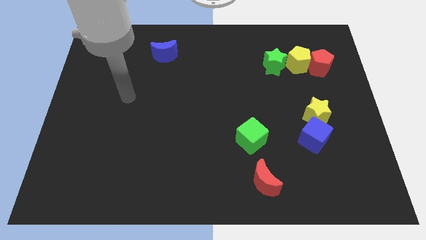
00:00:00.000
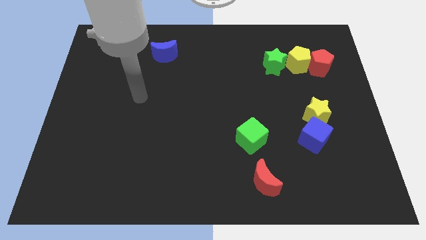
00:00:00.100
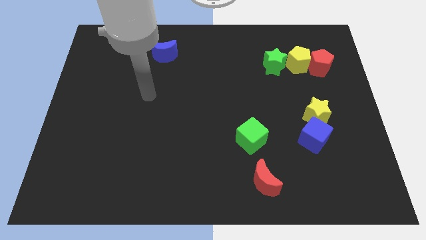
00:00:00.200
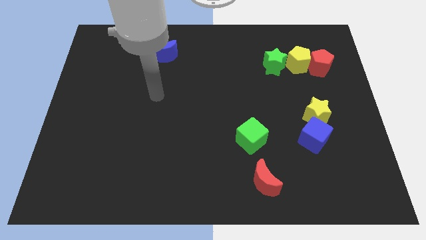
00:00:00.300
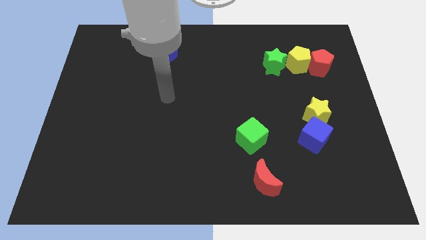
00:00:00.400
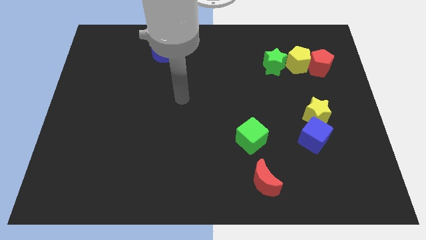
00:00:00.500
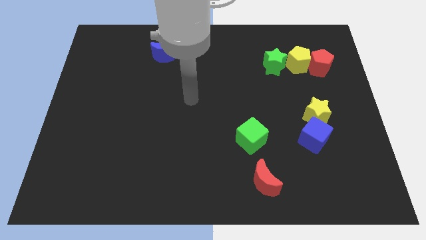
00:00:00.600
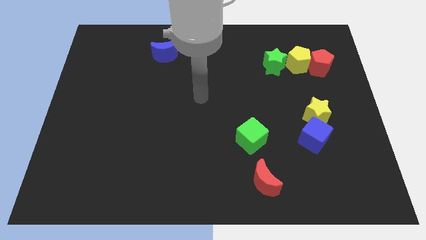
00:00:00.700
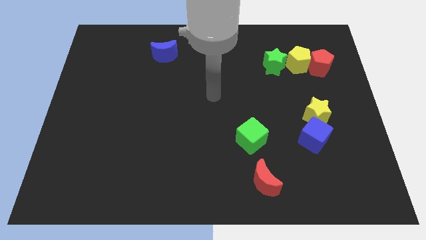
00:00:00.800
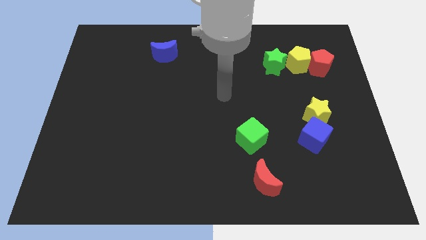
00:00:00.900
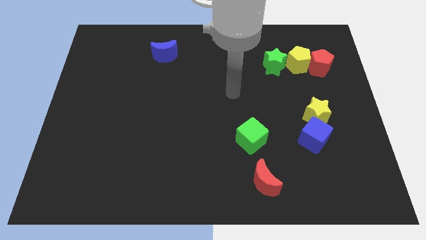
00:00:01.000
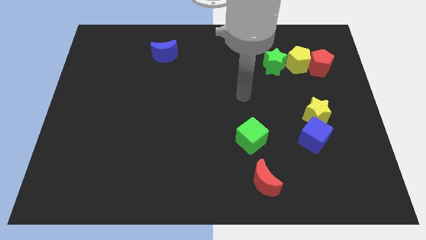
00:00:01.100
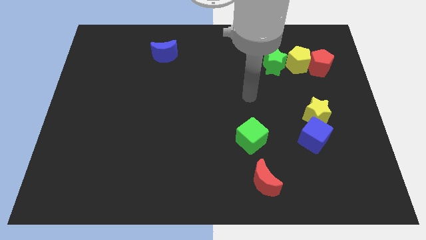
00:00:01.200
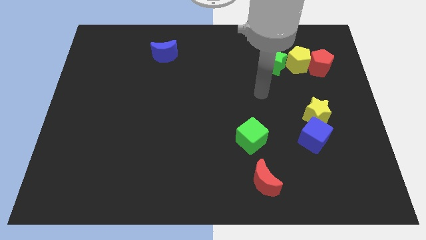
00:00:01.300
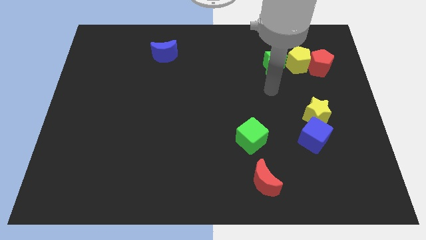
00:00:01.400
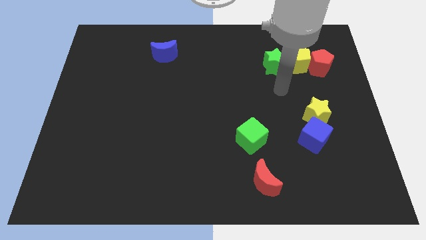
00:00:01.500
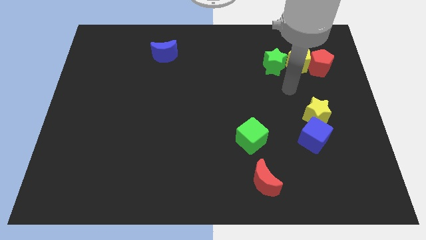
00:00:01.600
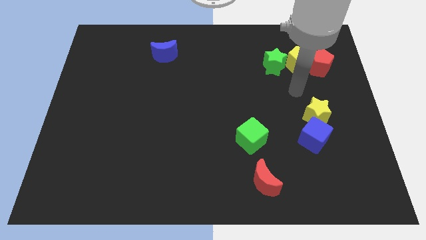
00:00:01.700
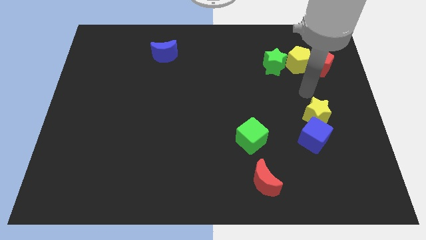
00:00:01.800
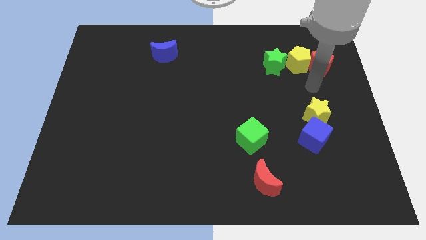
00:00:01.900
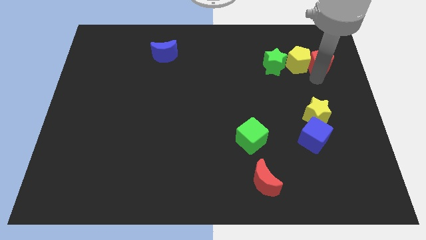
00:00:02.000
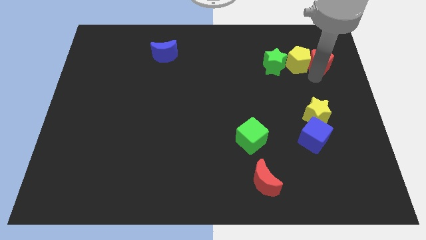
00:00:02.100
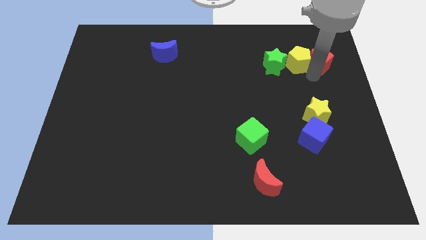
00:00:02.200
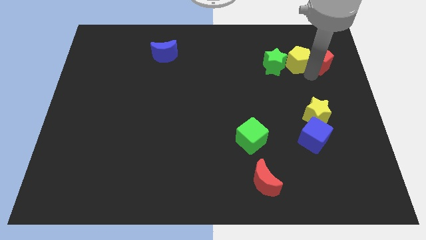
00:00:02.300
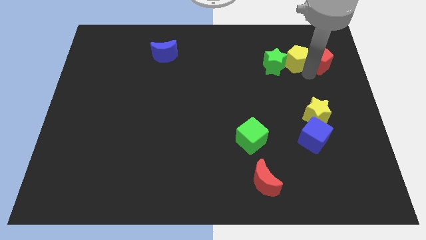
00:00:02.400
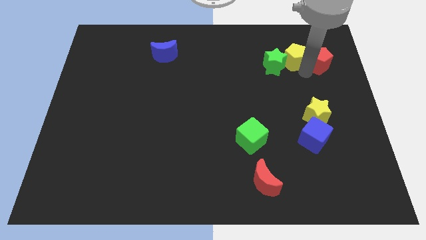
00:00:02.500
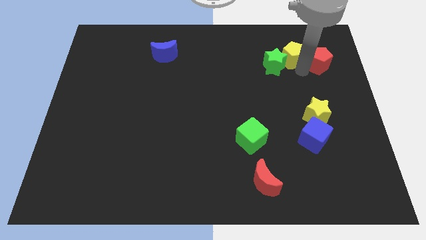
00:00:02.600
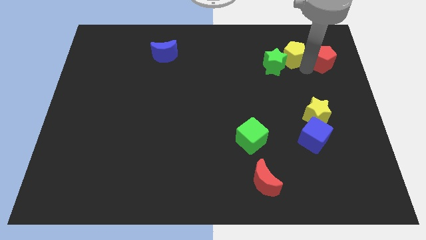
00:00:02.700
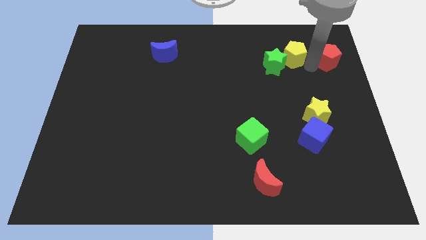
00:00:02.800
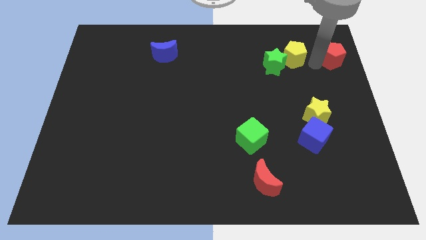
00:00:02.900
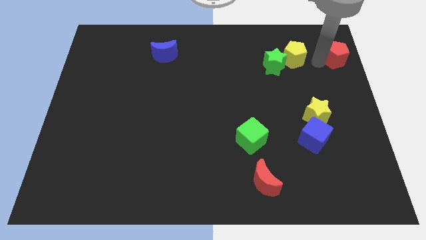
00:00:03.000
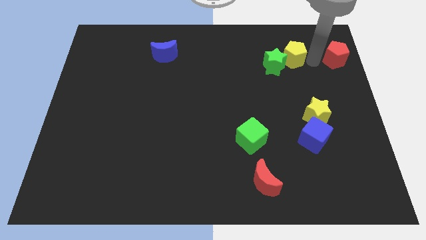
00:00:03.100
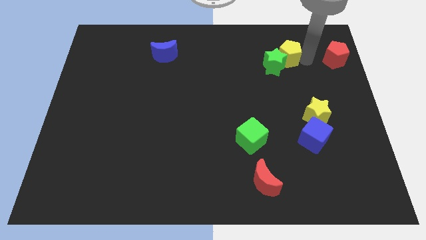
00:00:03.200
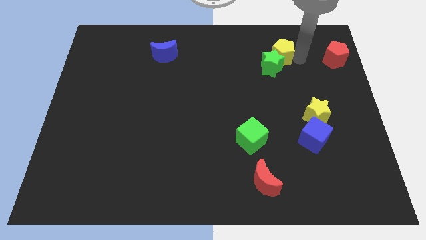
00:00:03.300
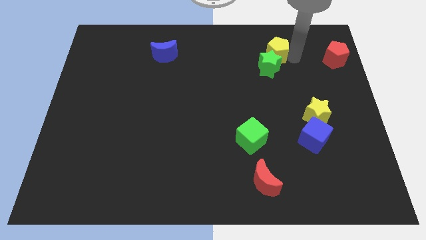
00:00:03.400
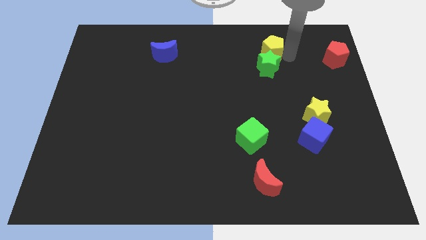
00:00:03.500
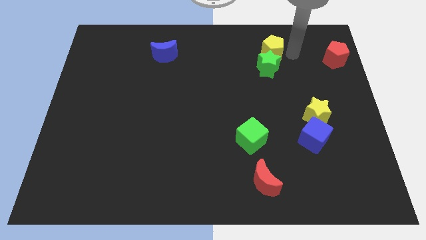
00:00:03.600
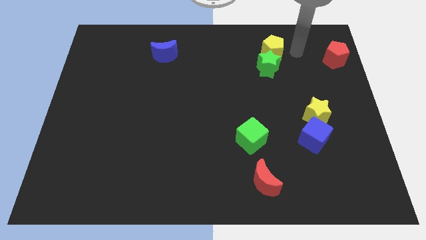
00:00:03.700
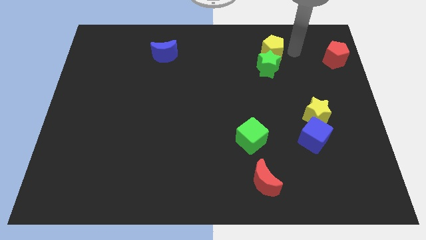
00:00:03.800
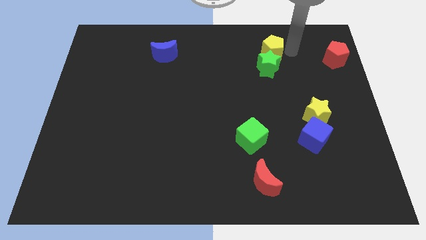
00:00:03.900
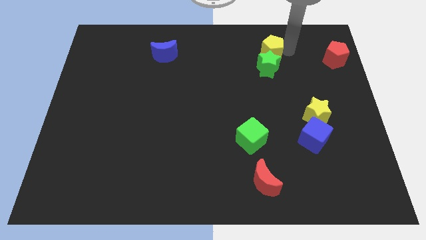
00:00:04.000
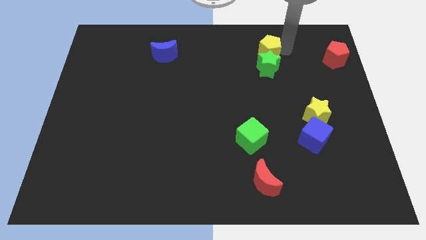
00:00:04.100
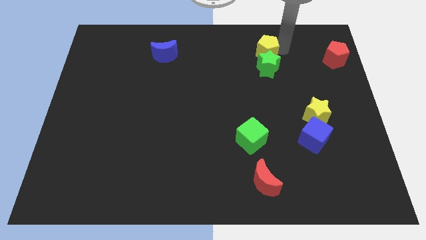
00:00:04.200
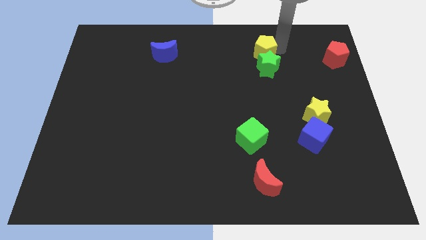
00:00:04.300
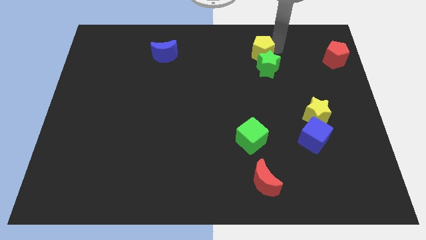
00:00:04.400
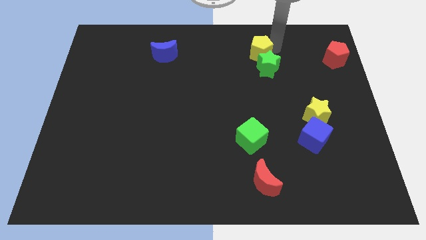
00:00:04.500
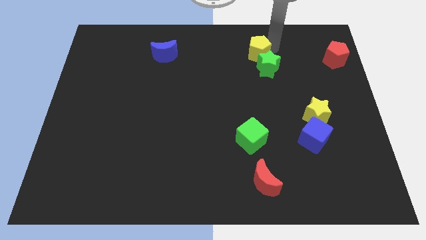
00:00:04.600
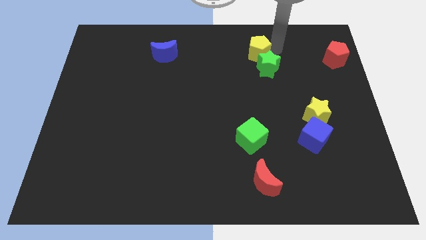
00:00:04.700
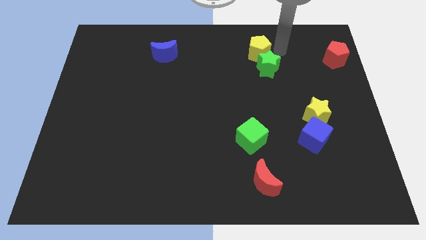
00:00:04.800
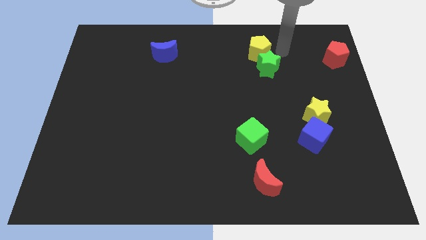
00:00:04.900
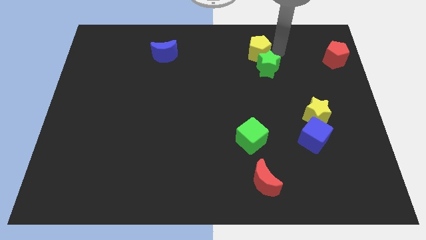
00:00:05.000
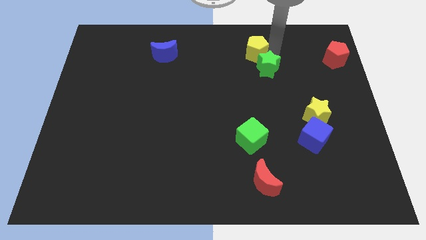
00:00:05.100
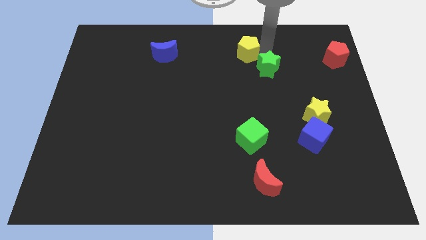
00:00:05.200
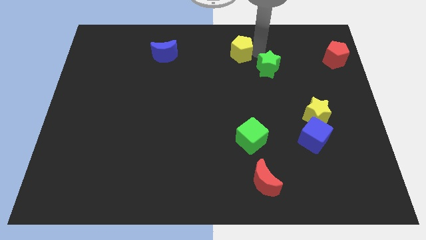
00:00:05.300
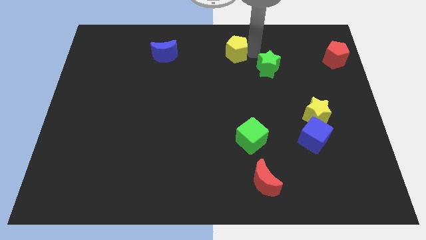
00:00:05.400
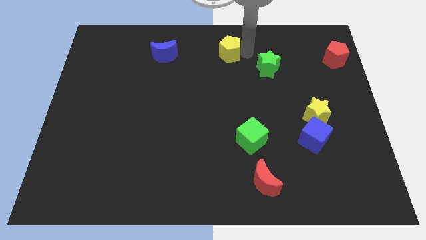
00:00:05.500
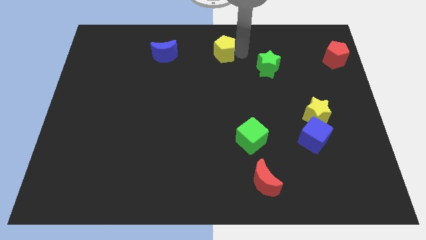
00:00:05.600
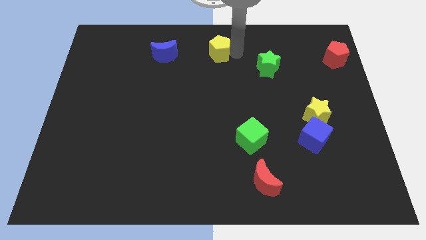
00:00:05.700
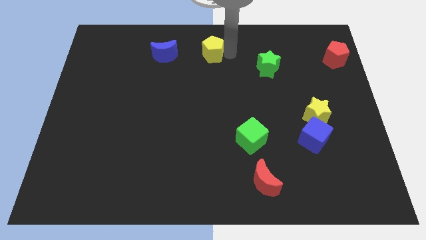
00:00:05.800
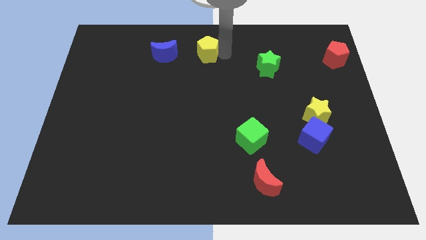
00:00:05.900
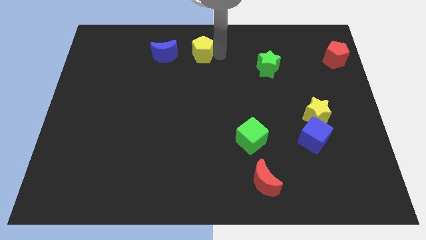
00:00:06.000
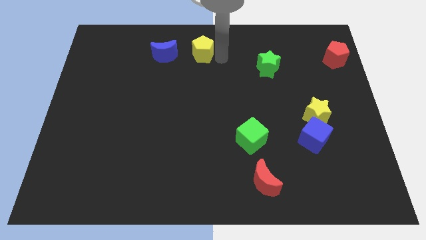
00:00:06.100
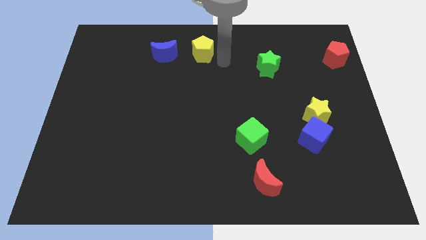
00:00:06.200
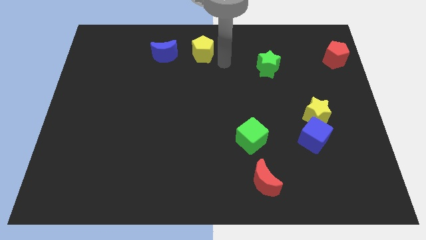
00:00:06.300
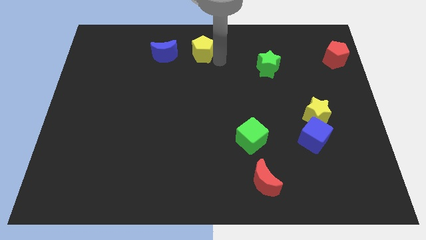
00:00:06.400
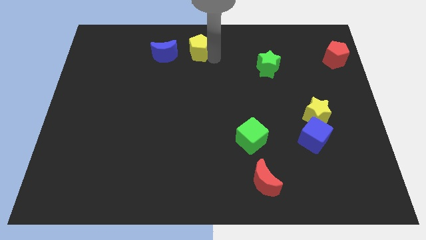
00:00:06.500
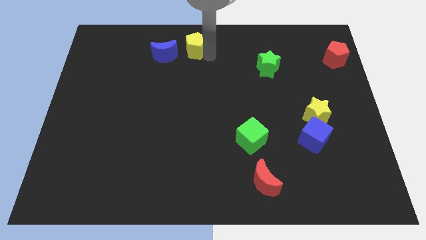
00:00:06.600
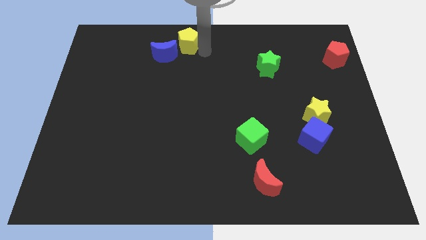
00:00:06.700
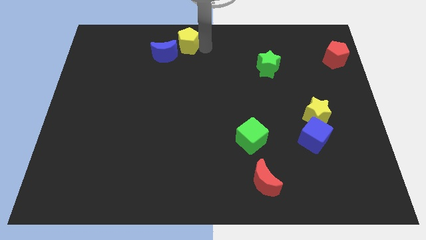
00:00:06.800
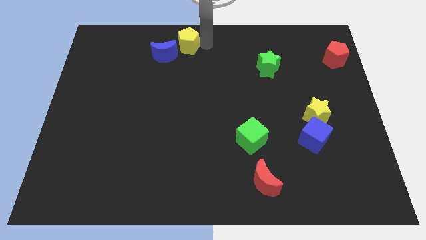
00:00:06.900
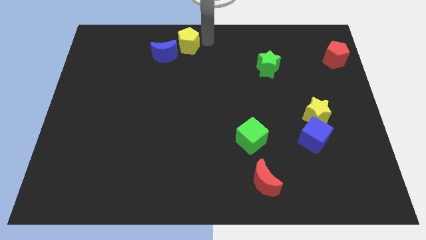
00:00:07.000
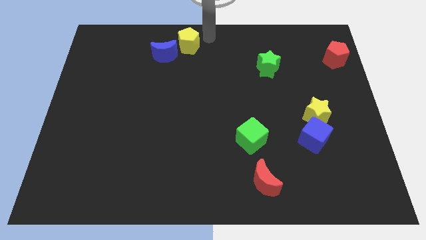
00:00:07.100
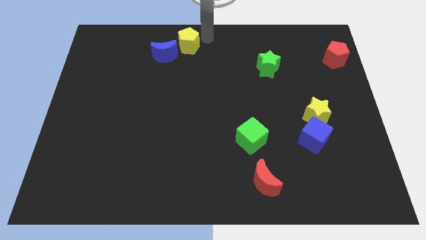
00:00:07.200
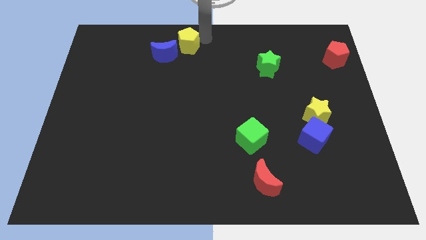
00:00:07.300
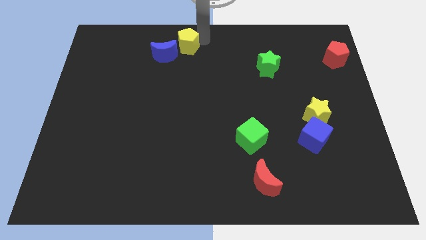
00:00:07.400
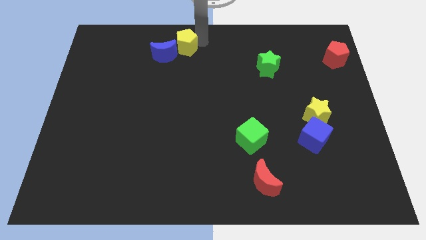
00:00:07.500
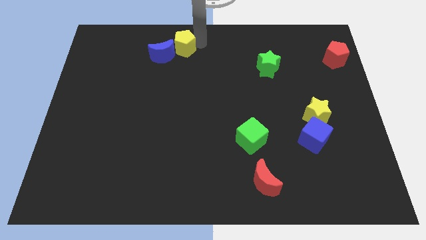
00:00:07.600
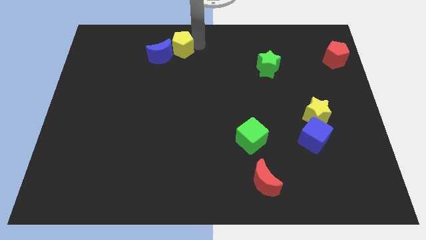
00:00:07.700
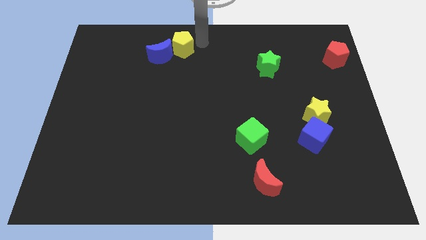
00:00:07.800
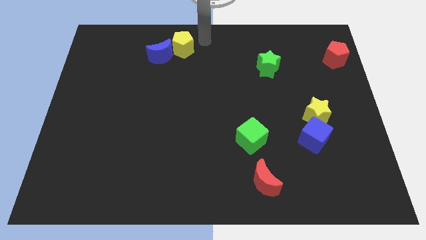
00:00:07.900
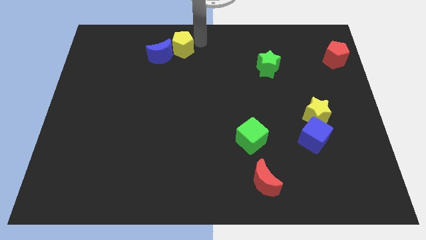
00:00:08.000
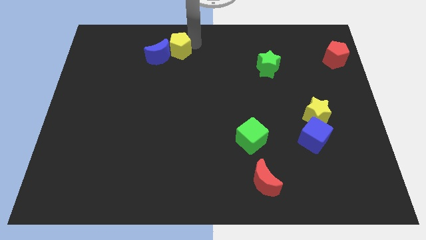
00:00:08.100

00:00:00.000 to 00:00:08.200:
put the yellow pentagon towards the blue moon
